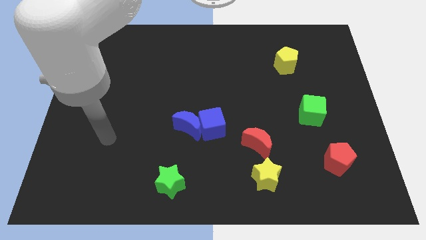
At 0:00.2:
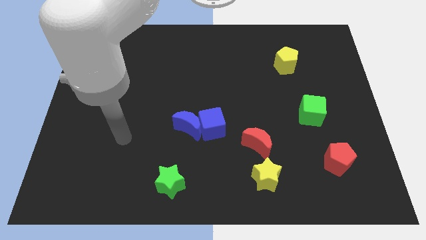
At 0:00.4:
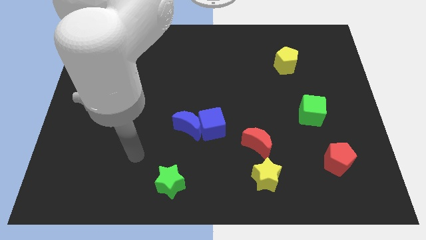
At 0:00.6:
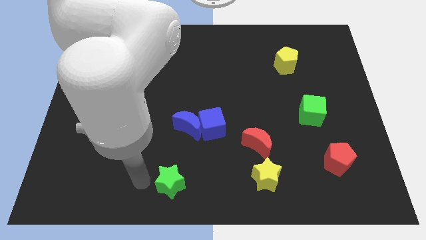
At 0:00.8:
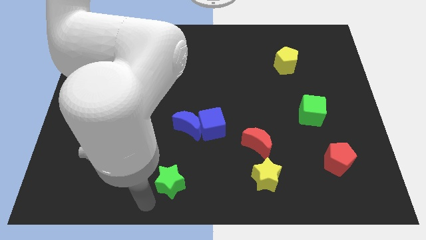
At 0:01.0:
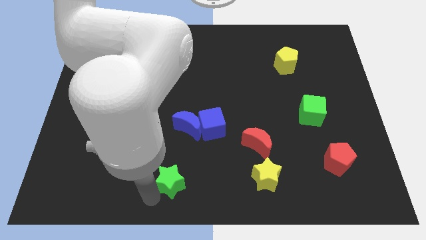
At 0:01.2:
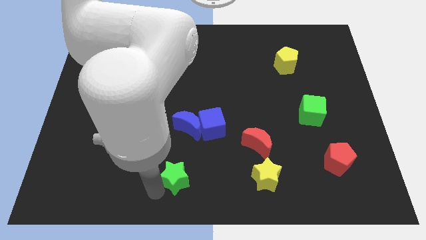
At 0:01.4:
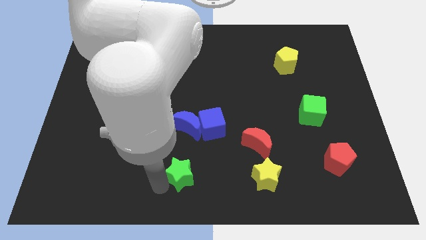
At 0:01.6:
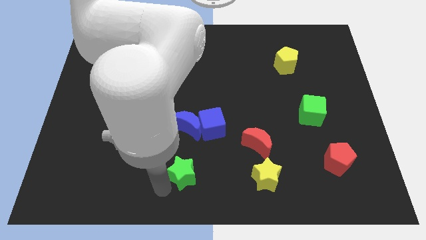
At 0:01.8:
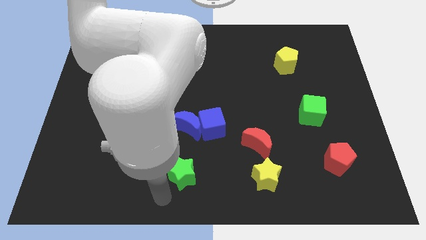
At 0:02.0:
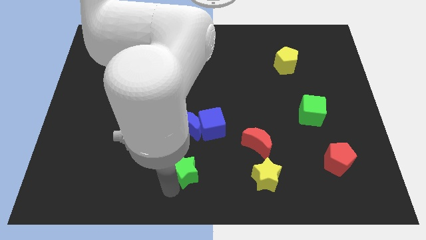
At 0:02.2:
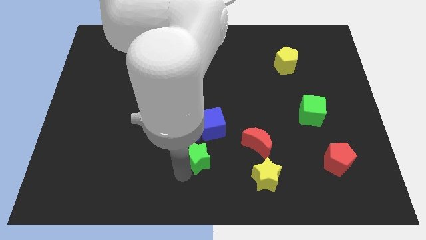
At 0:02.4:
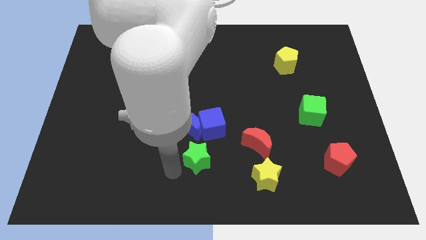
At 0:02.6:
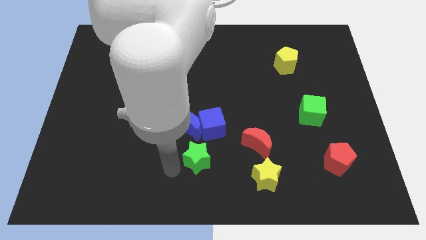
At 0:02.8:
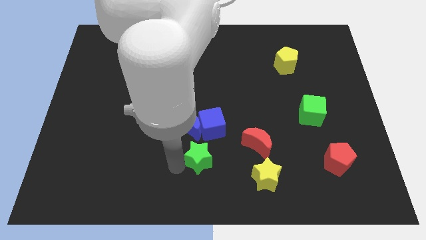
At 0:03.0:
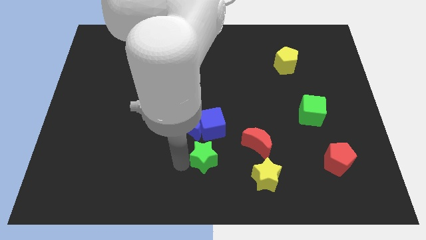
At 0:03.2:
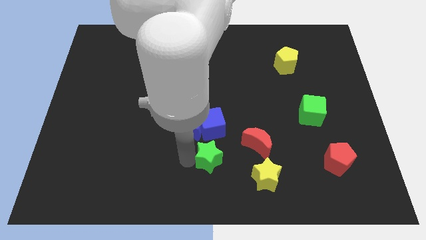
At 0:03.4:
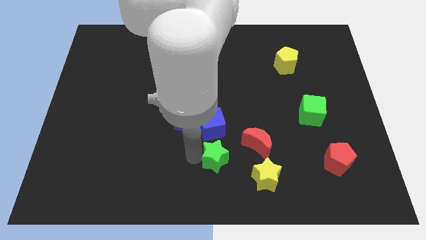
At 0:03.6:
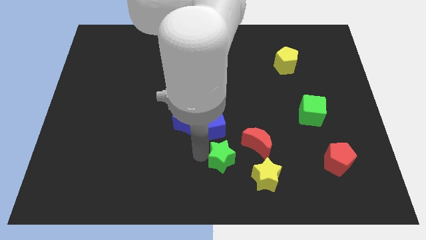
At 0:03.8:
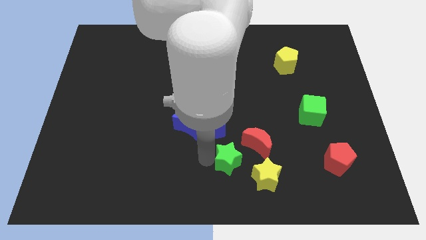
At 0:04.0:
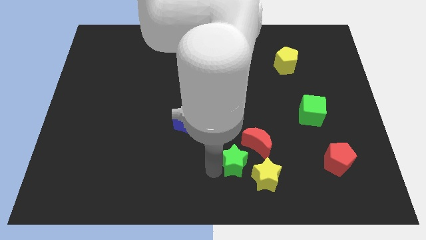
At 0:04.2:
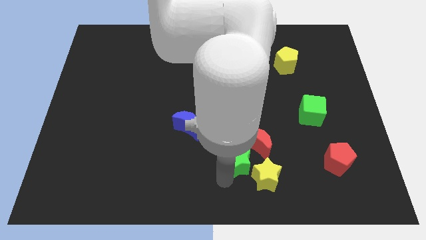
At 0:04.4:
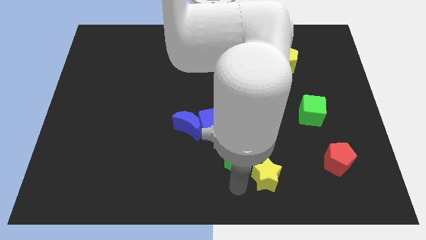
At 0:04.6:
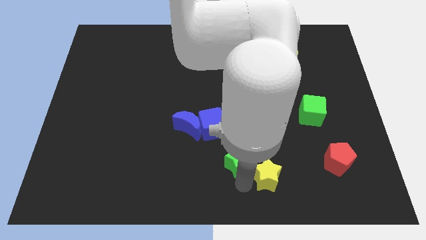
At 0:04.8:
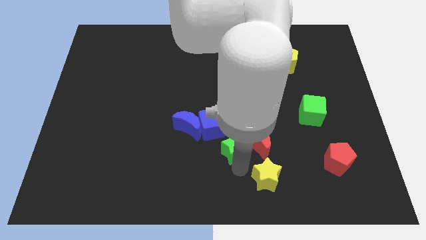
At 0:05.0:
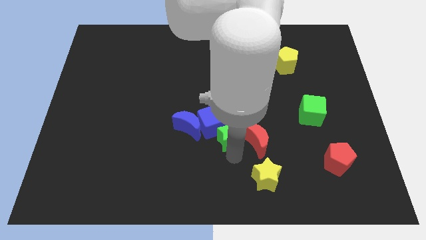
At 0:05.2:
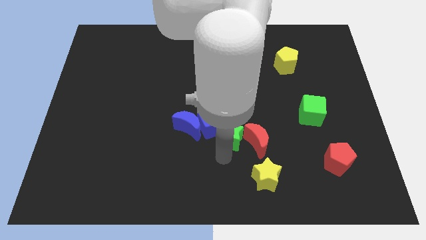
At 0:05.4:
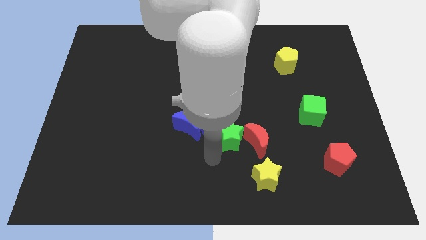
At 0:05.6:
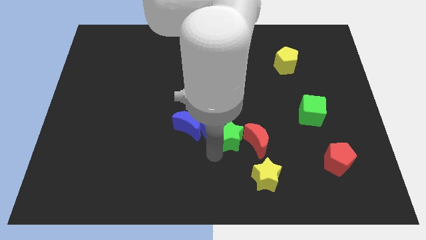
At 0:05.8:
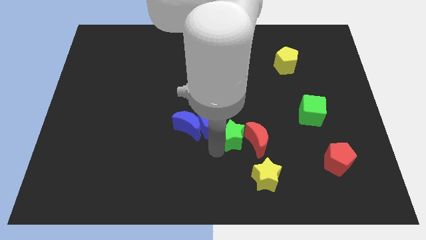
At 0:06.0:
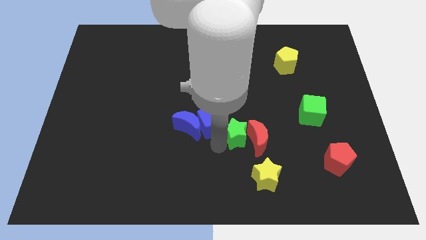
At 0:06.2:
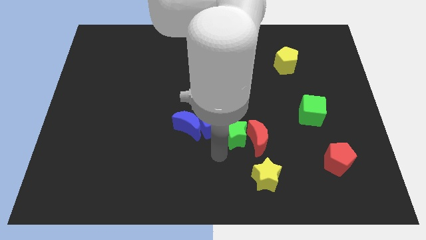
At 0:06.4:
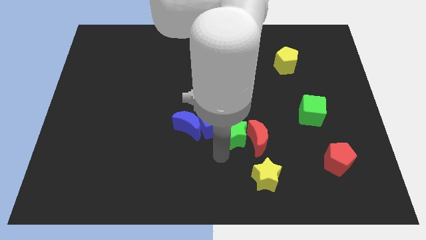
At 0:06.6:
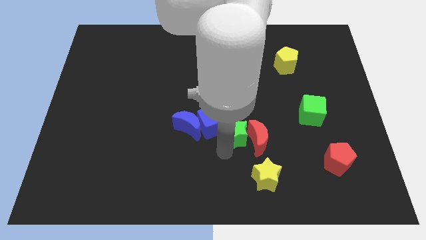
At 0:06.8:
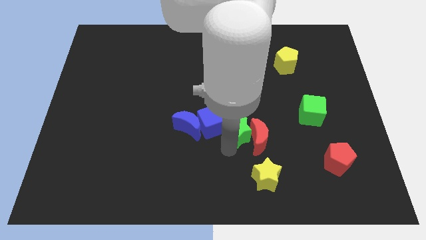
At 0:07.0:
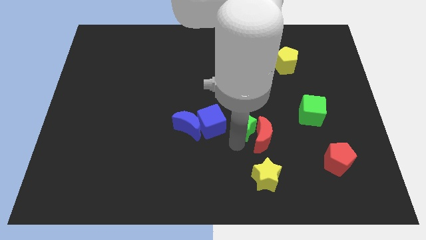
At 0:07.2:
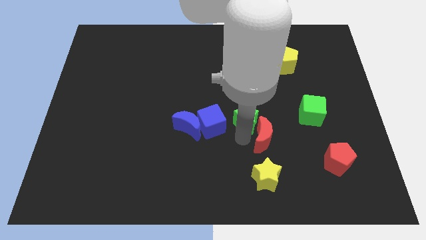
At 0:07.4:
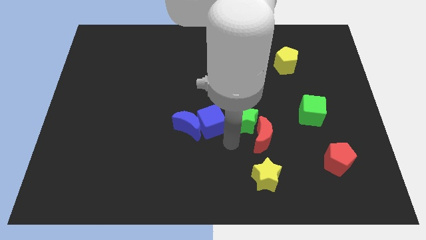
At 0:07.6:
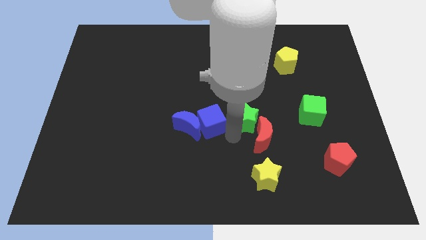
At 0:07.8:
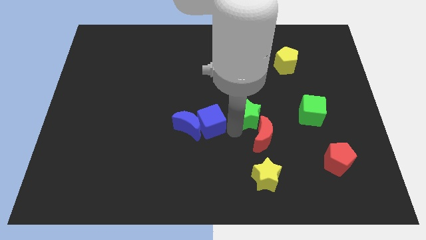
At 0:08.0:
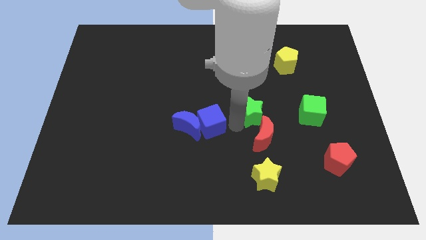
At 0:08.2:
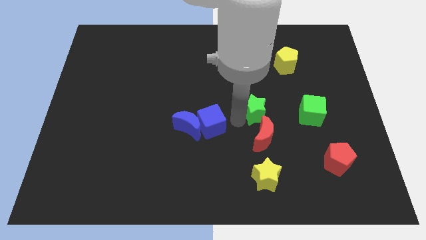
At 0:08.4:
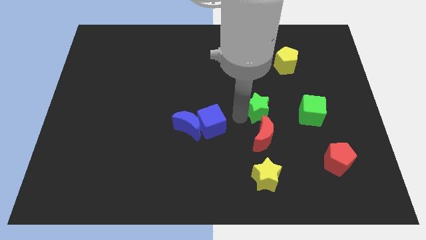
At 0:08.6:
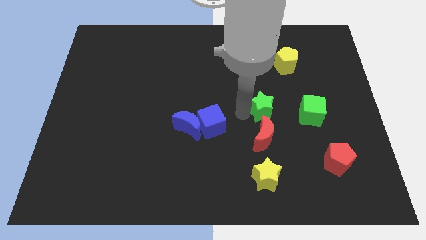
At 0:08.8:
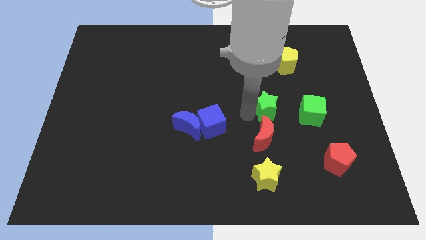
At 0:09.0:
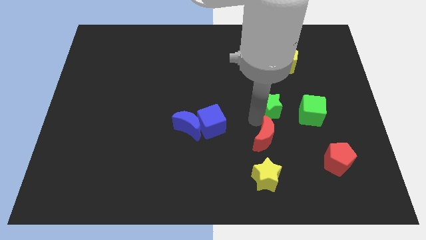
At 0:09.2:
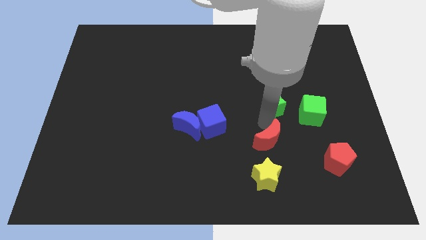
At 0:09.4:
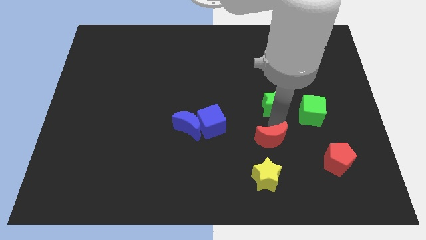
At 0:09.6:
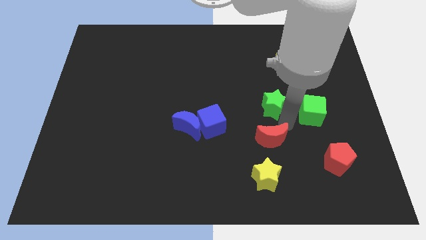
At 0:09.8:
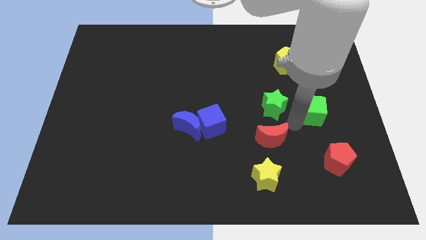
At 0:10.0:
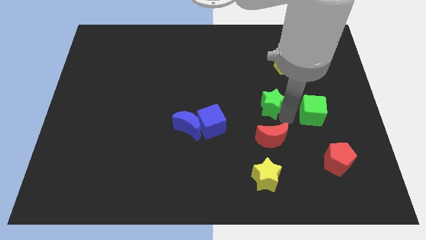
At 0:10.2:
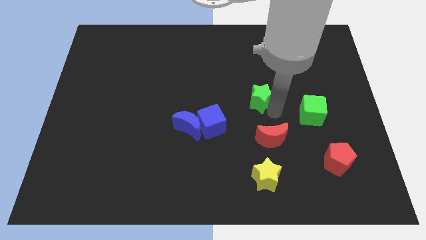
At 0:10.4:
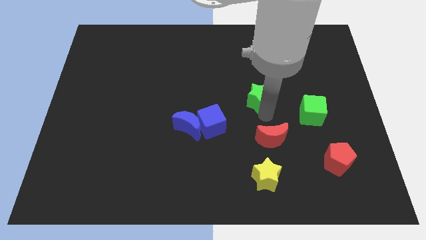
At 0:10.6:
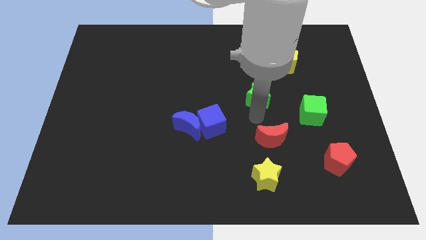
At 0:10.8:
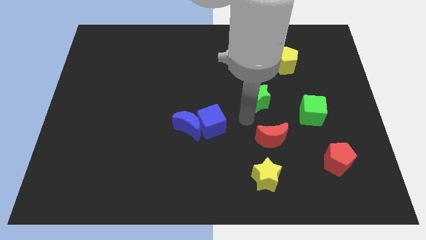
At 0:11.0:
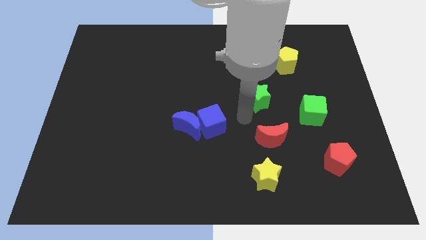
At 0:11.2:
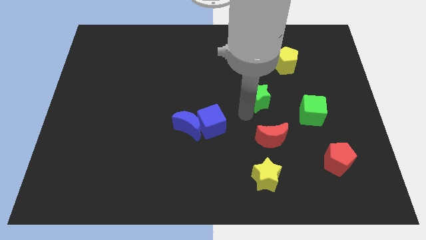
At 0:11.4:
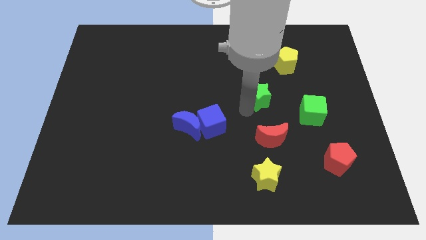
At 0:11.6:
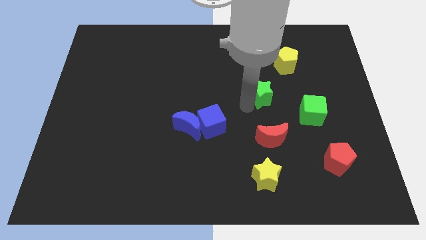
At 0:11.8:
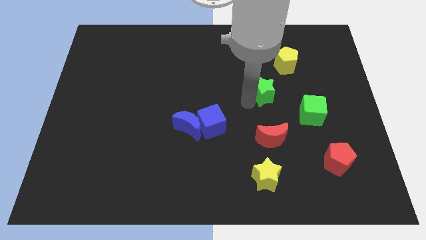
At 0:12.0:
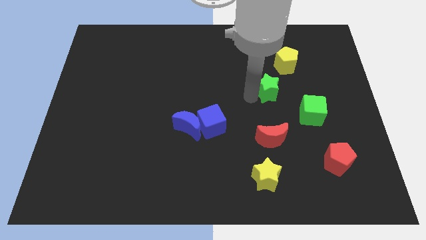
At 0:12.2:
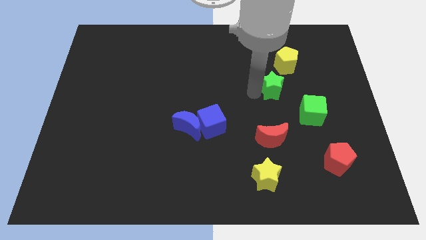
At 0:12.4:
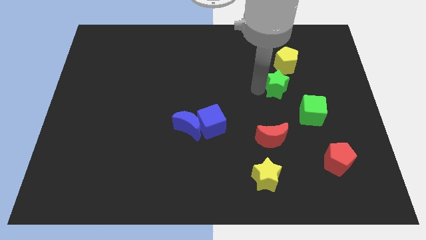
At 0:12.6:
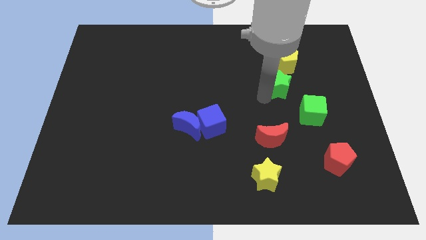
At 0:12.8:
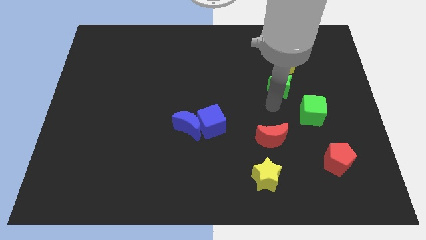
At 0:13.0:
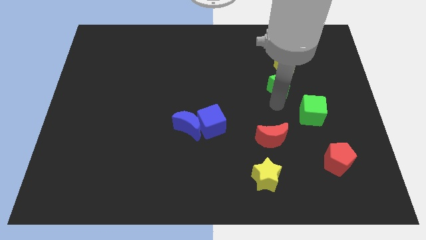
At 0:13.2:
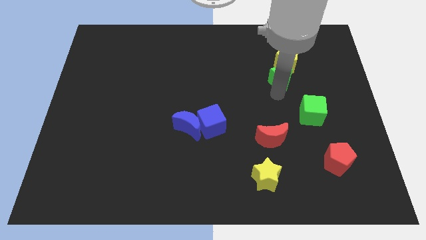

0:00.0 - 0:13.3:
push the green star to the yellow pentagon

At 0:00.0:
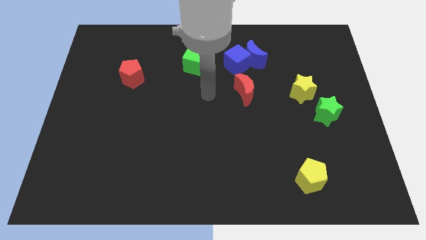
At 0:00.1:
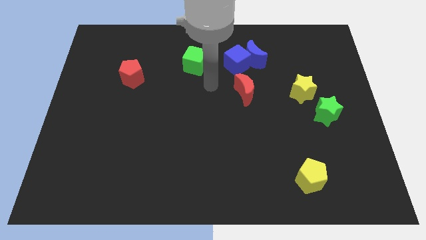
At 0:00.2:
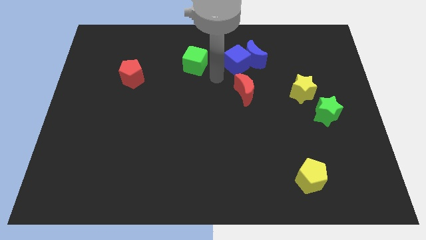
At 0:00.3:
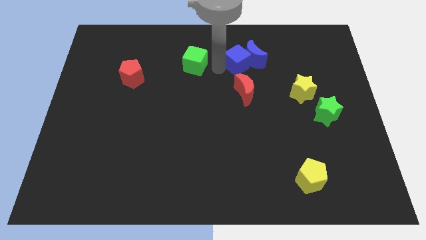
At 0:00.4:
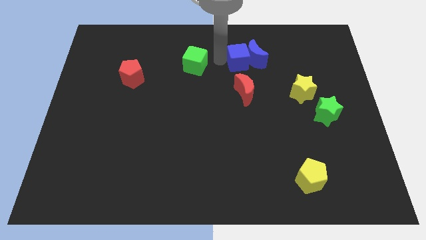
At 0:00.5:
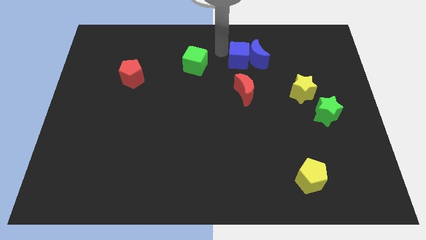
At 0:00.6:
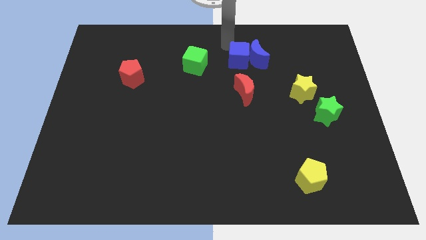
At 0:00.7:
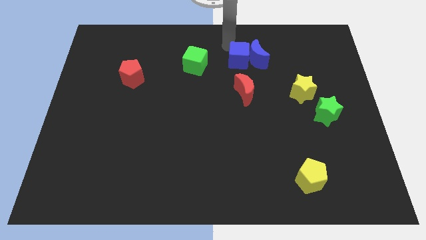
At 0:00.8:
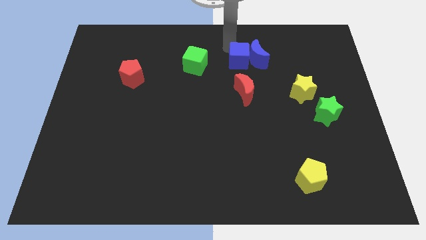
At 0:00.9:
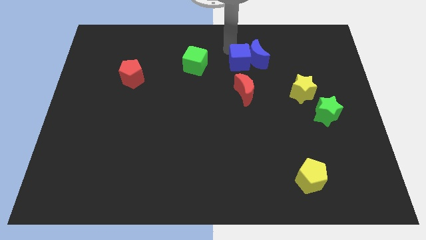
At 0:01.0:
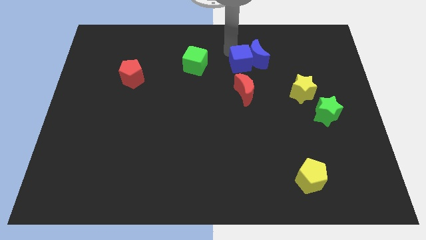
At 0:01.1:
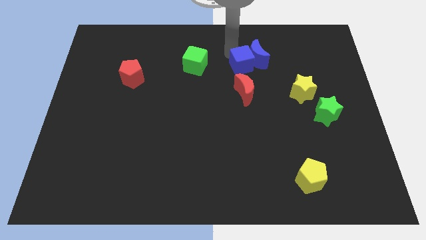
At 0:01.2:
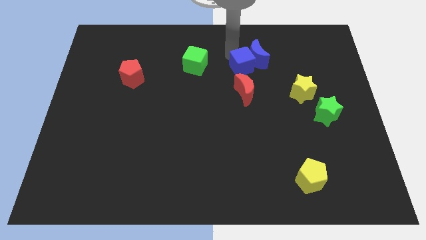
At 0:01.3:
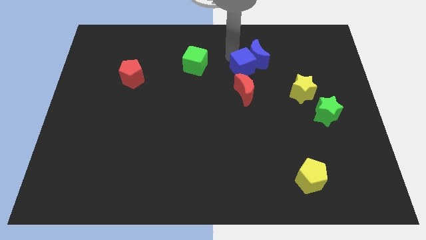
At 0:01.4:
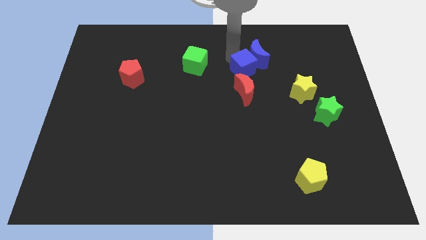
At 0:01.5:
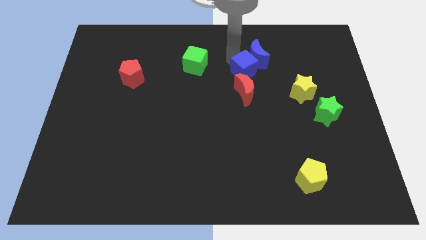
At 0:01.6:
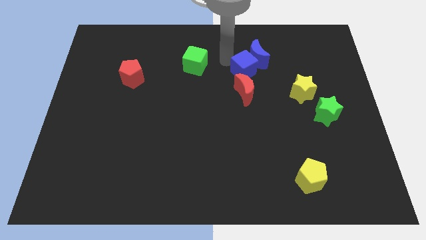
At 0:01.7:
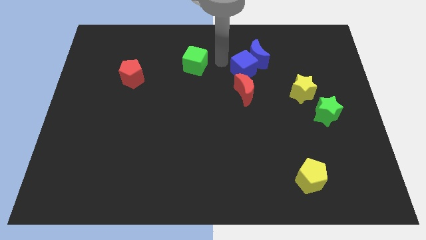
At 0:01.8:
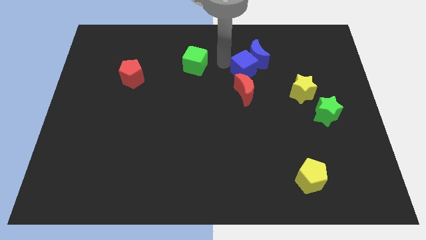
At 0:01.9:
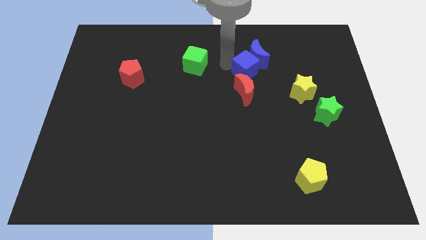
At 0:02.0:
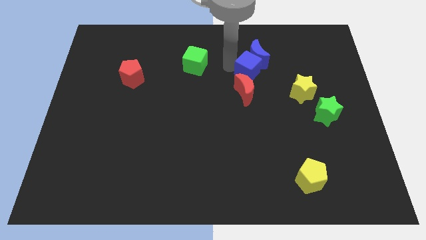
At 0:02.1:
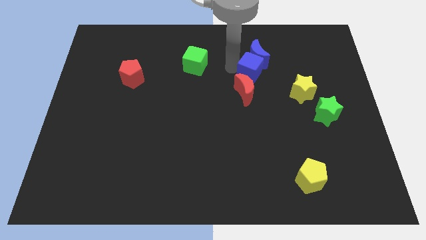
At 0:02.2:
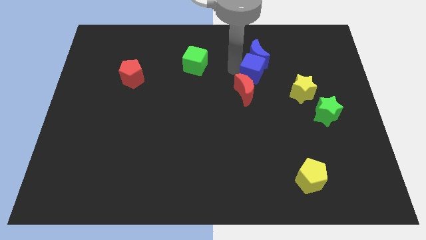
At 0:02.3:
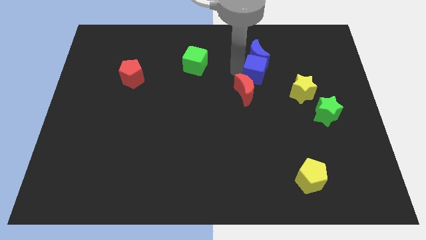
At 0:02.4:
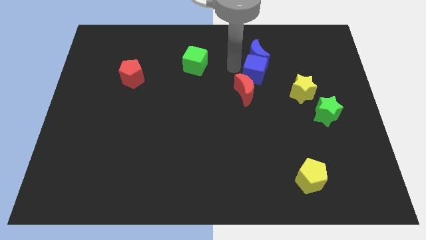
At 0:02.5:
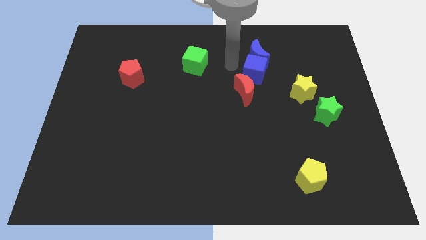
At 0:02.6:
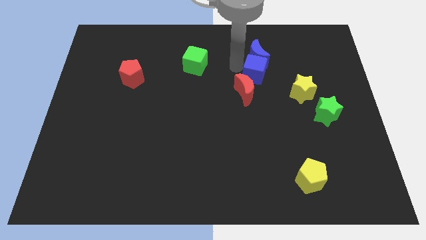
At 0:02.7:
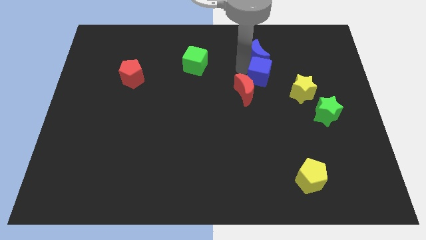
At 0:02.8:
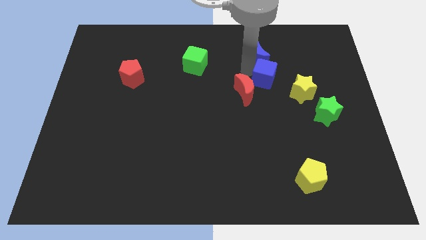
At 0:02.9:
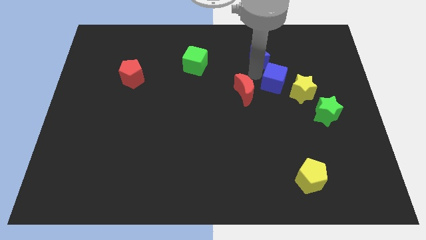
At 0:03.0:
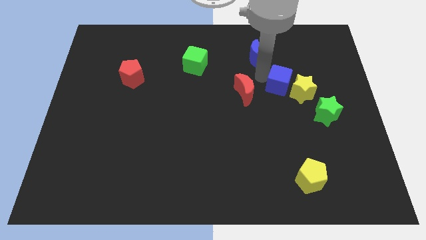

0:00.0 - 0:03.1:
slide the blue cube close to the yellow star
